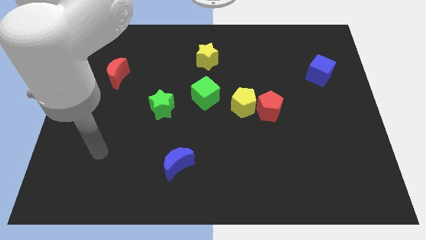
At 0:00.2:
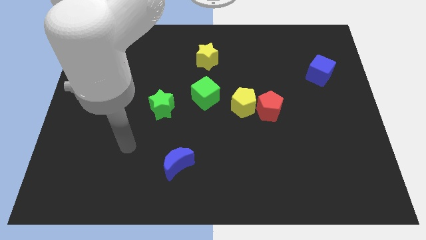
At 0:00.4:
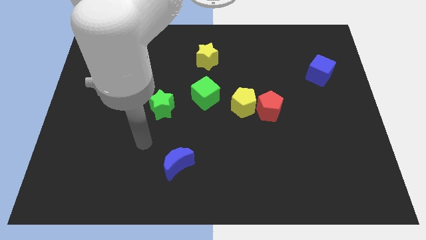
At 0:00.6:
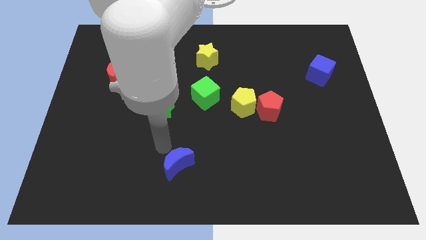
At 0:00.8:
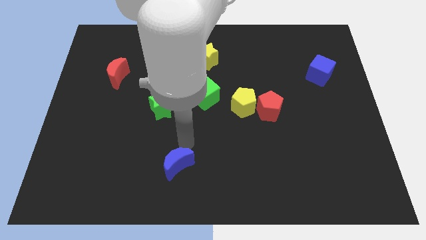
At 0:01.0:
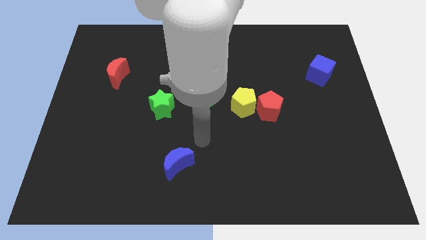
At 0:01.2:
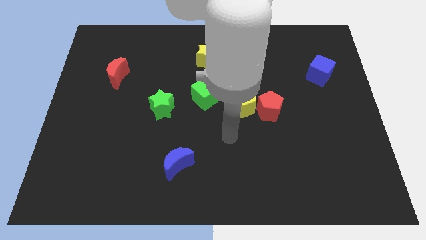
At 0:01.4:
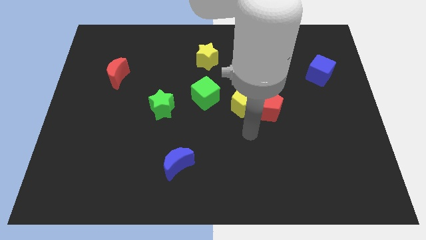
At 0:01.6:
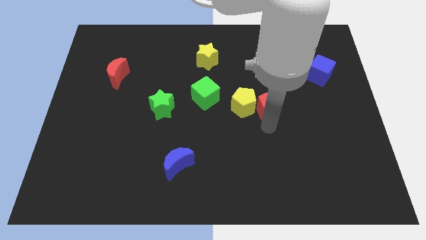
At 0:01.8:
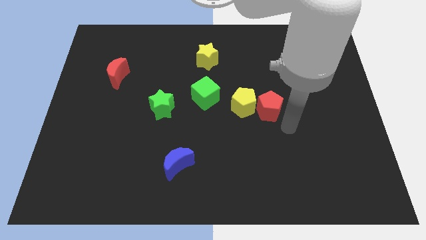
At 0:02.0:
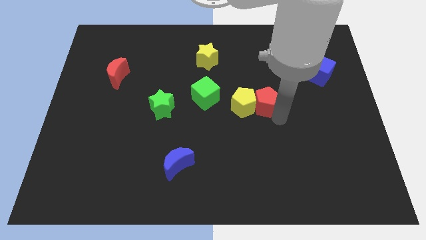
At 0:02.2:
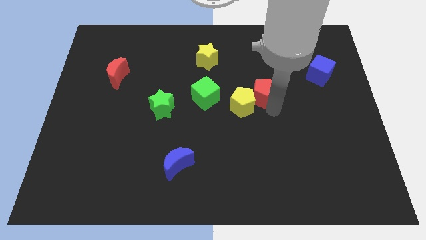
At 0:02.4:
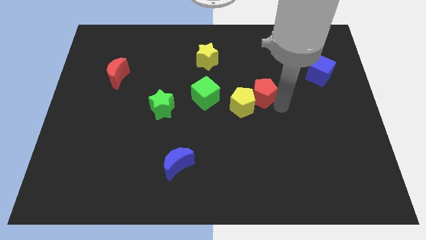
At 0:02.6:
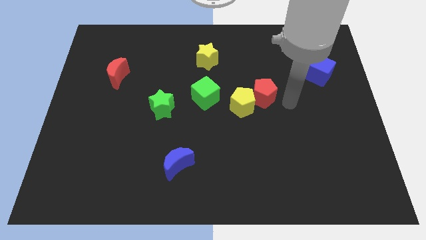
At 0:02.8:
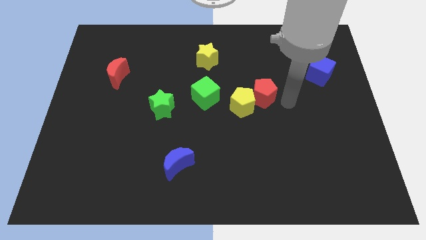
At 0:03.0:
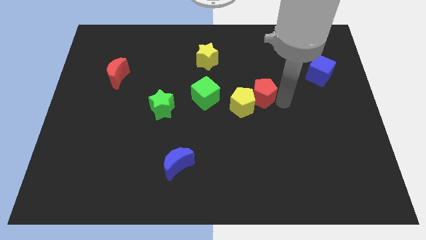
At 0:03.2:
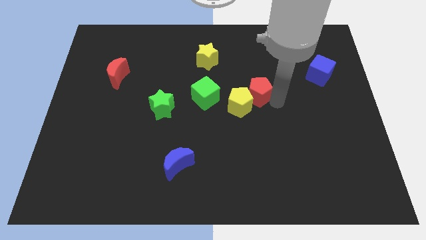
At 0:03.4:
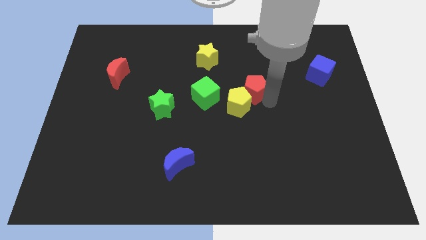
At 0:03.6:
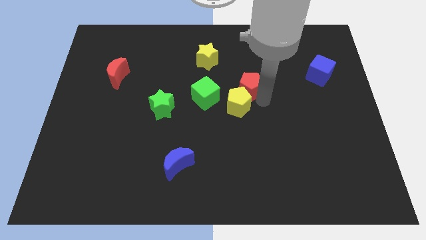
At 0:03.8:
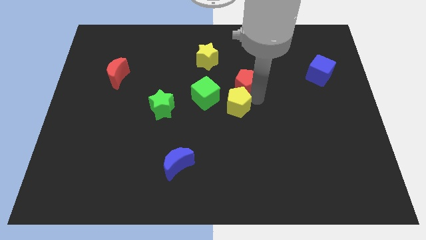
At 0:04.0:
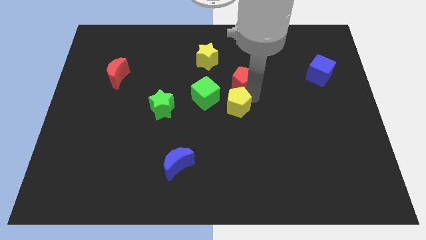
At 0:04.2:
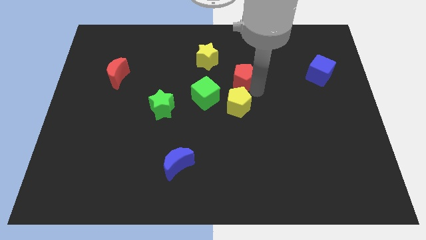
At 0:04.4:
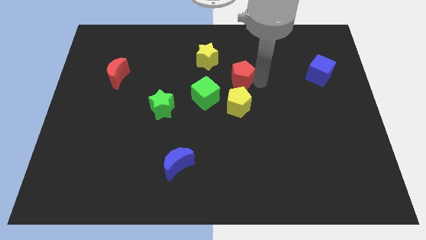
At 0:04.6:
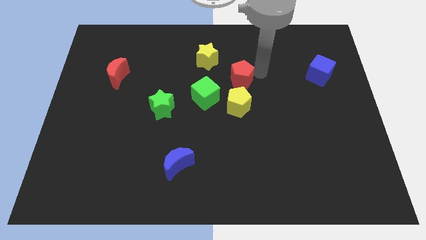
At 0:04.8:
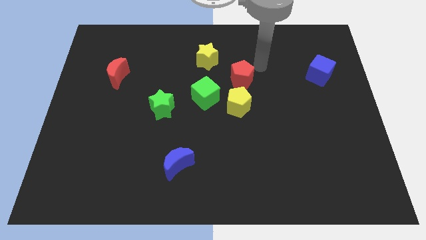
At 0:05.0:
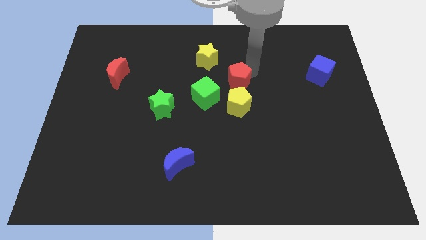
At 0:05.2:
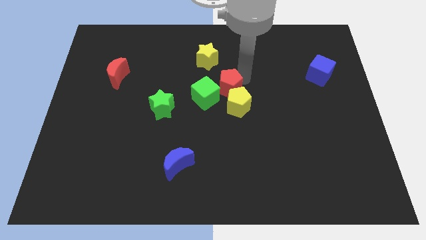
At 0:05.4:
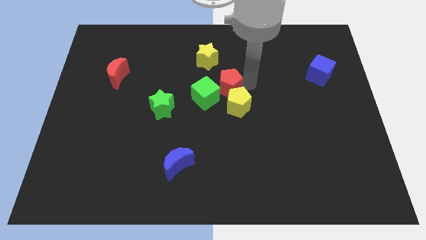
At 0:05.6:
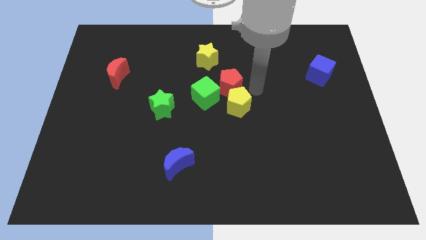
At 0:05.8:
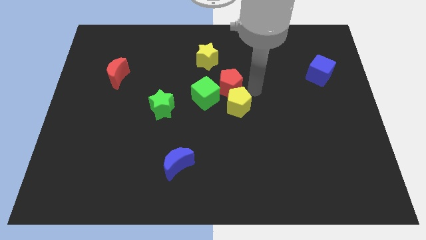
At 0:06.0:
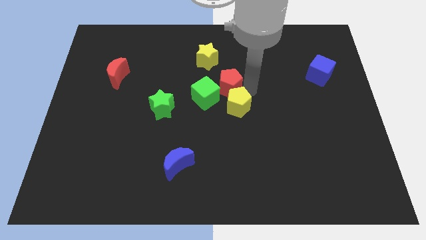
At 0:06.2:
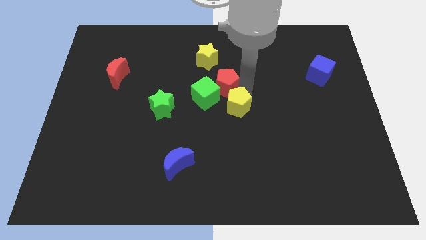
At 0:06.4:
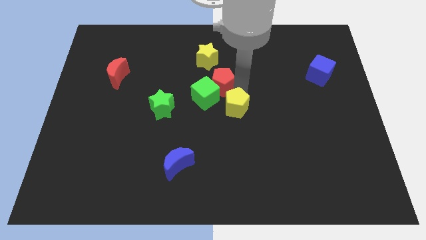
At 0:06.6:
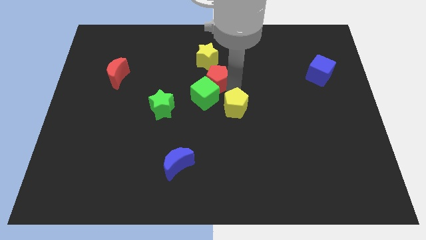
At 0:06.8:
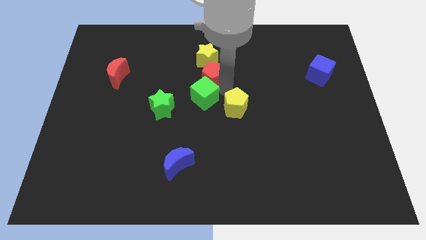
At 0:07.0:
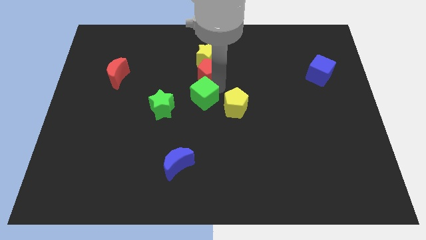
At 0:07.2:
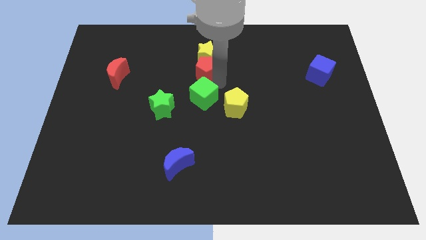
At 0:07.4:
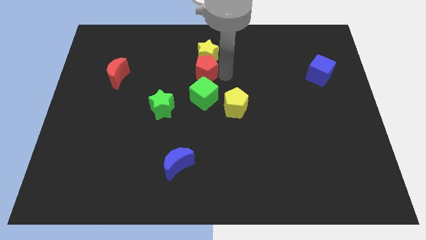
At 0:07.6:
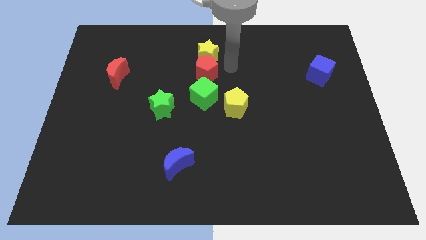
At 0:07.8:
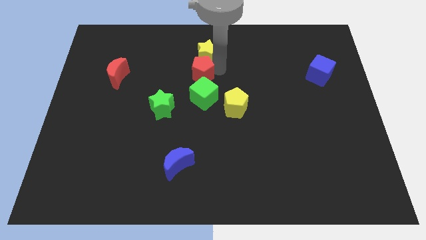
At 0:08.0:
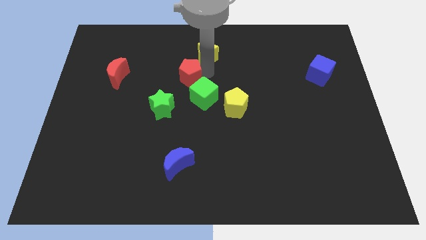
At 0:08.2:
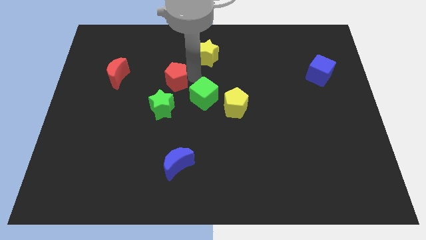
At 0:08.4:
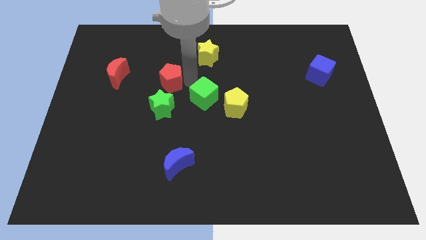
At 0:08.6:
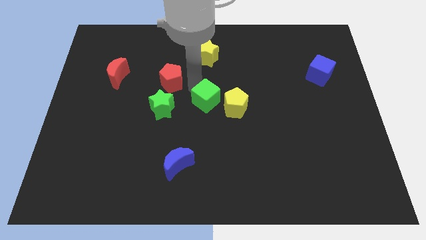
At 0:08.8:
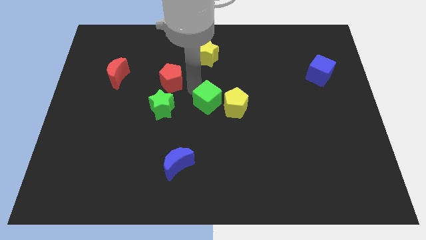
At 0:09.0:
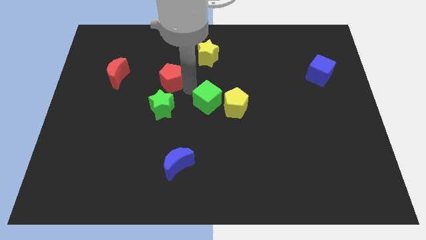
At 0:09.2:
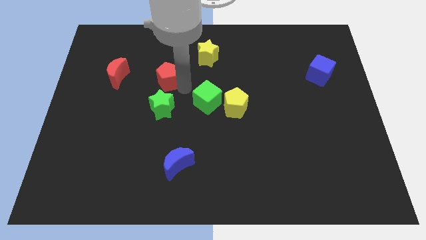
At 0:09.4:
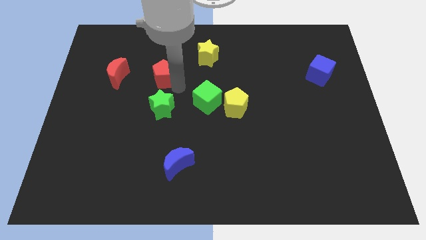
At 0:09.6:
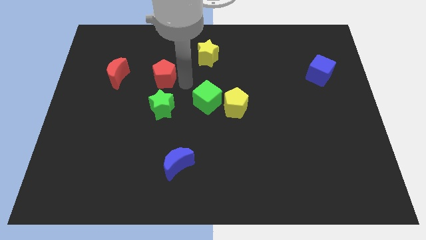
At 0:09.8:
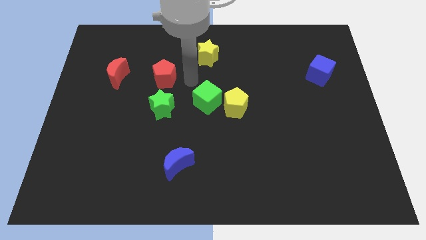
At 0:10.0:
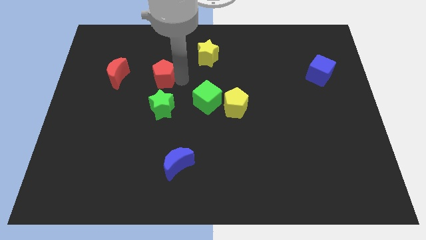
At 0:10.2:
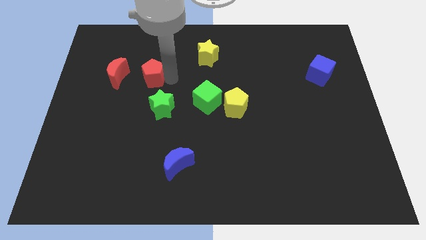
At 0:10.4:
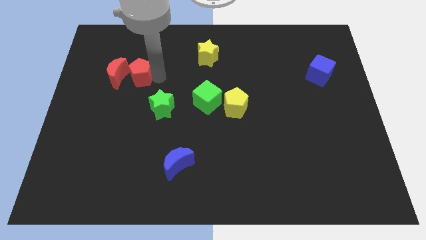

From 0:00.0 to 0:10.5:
put the red pentagon towards the red moon

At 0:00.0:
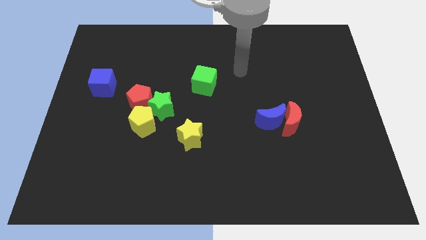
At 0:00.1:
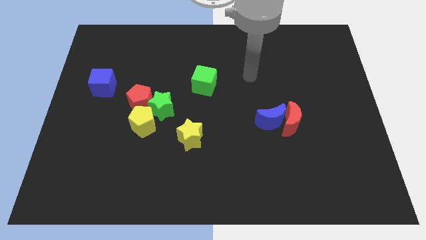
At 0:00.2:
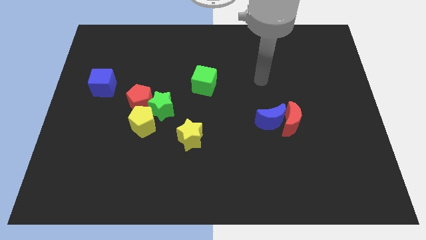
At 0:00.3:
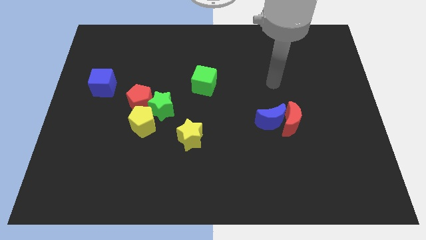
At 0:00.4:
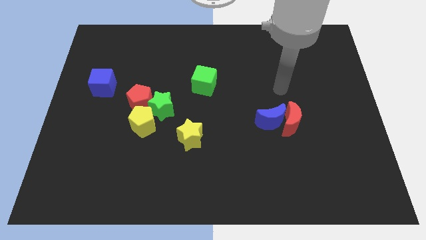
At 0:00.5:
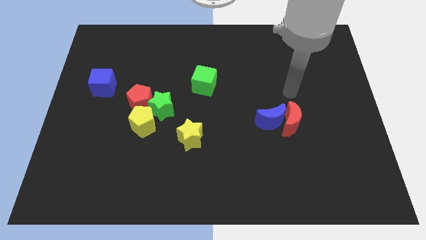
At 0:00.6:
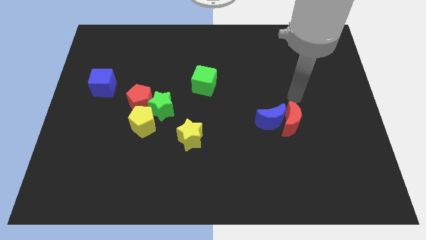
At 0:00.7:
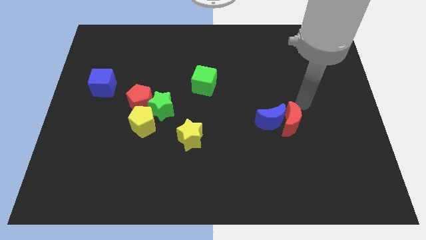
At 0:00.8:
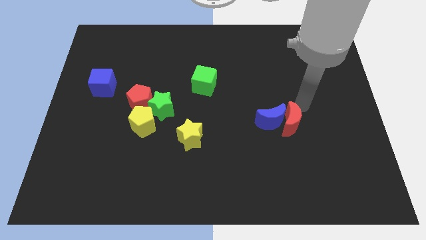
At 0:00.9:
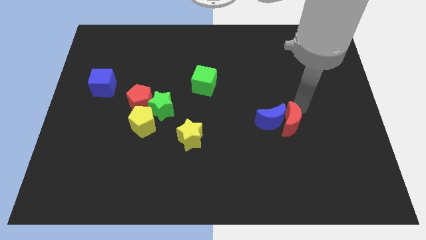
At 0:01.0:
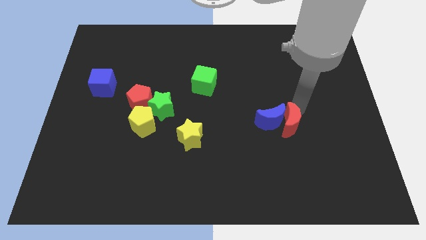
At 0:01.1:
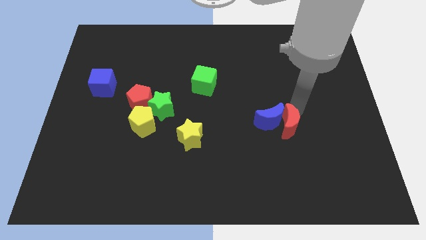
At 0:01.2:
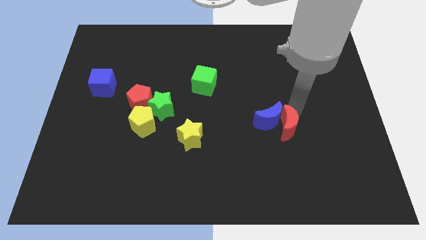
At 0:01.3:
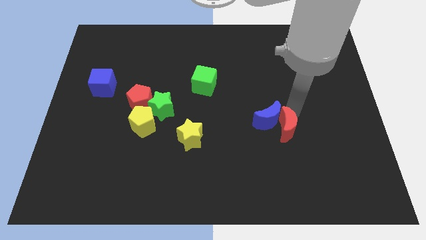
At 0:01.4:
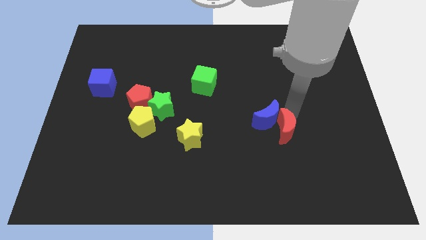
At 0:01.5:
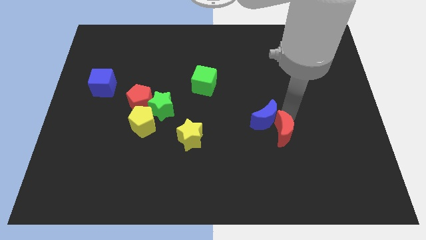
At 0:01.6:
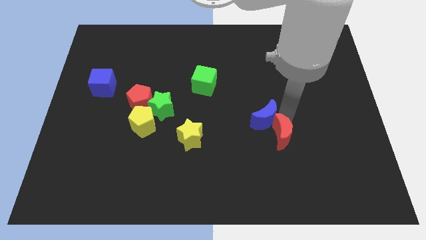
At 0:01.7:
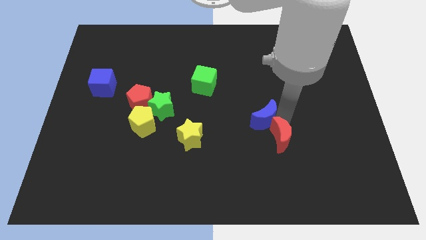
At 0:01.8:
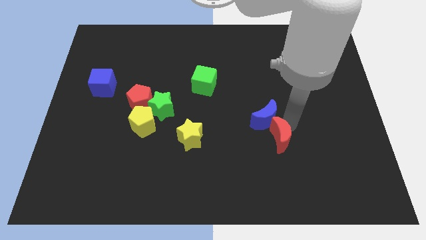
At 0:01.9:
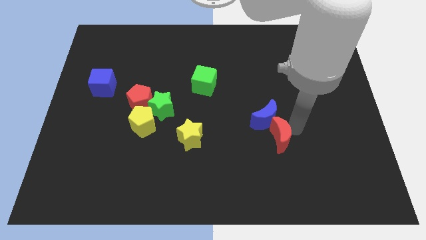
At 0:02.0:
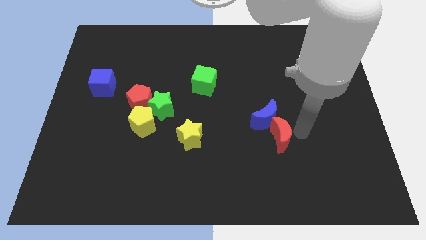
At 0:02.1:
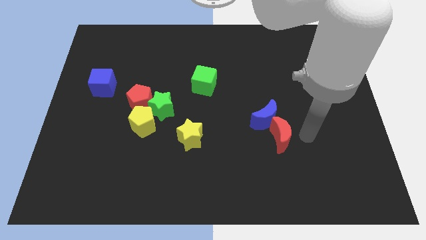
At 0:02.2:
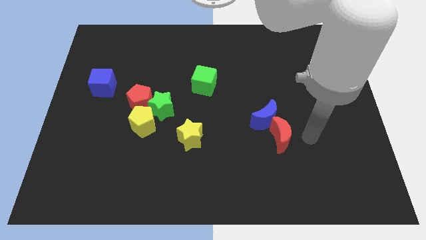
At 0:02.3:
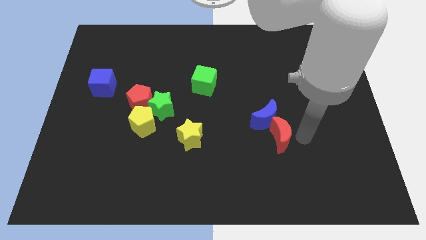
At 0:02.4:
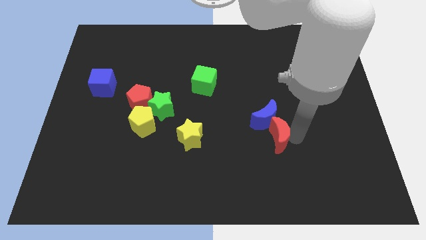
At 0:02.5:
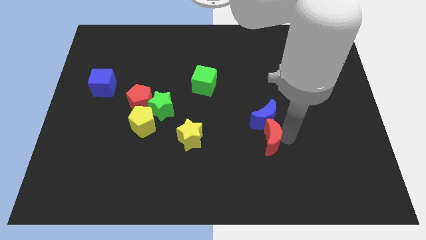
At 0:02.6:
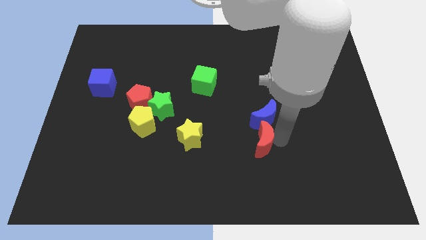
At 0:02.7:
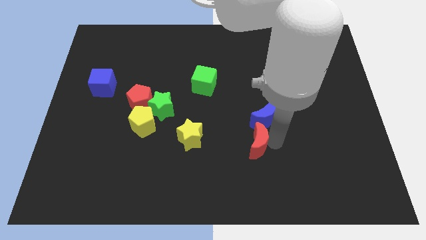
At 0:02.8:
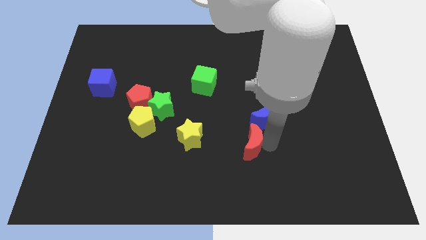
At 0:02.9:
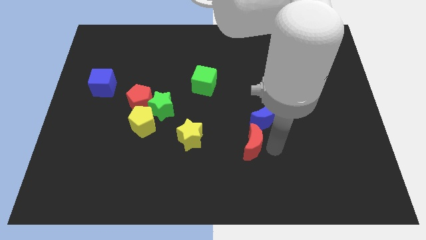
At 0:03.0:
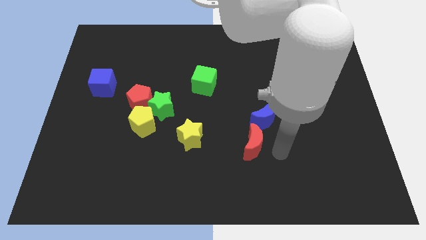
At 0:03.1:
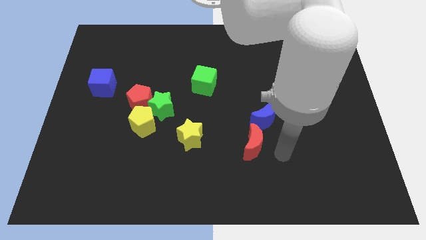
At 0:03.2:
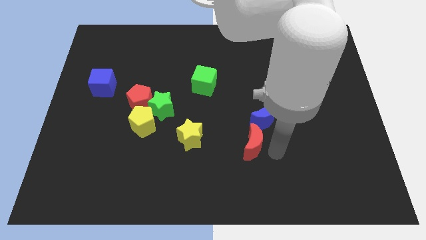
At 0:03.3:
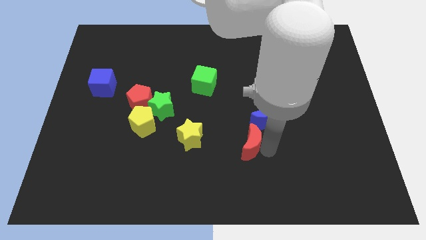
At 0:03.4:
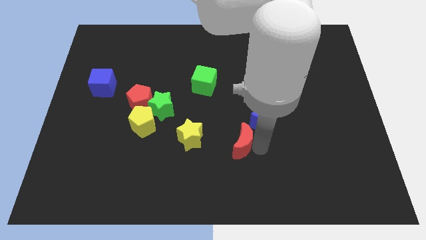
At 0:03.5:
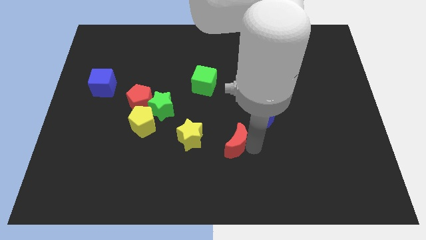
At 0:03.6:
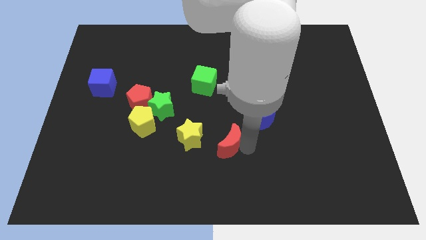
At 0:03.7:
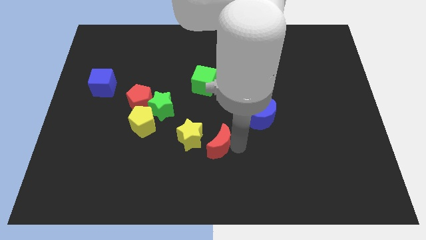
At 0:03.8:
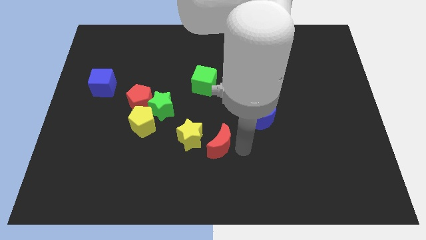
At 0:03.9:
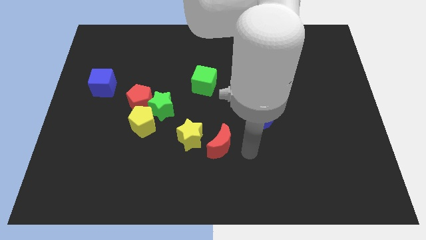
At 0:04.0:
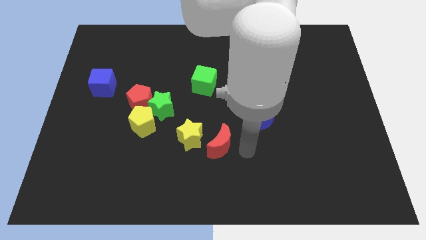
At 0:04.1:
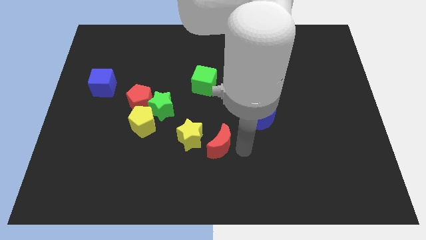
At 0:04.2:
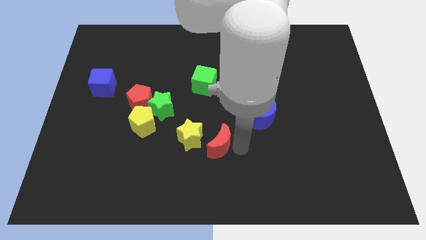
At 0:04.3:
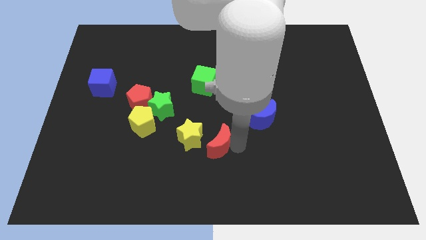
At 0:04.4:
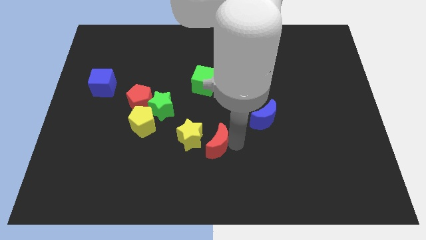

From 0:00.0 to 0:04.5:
move the red moon next to the yellow star
